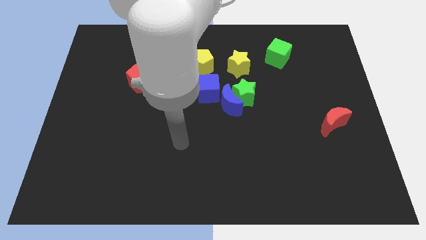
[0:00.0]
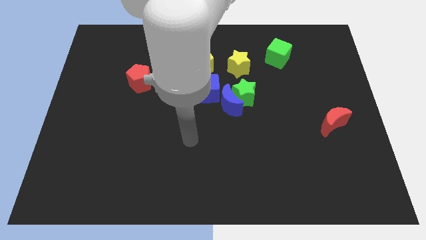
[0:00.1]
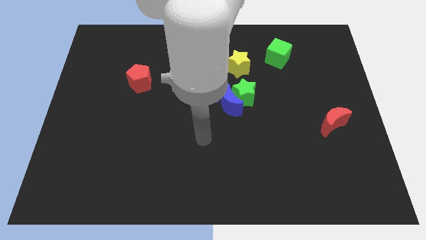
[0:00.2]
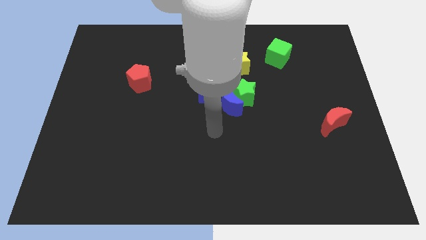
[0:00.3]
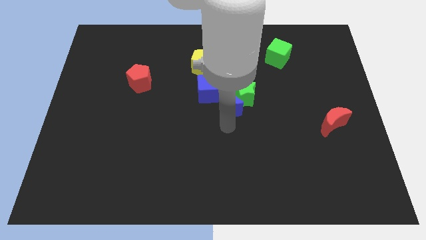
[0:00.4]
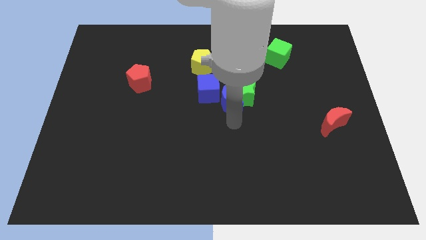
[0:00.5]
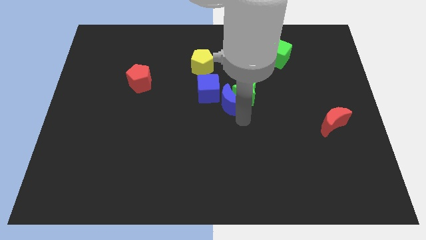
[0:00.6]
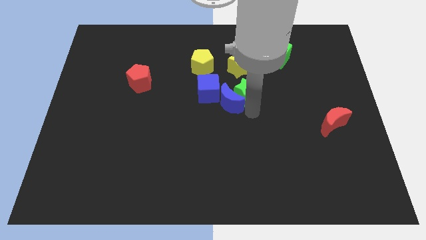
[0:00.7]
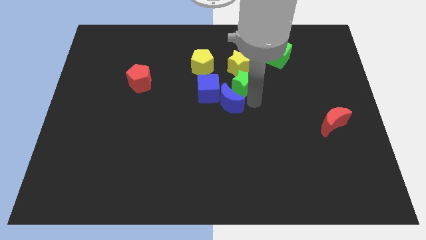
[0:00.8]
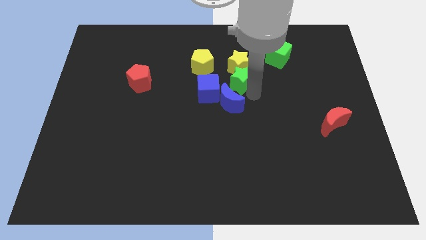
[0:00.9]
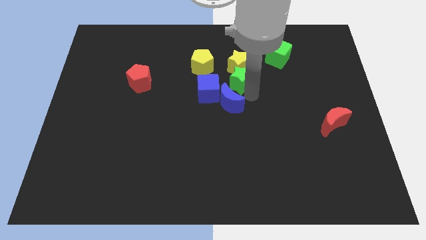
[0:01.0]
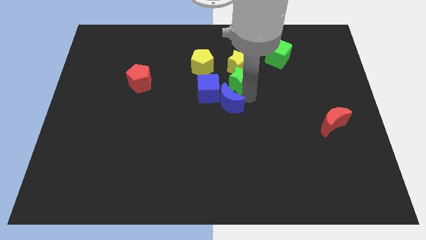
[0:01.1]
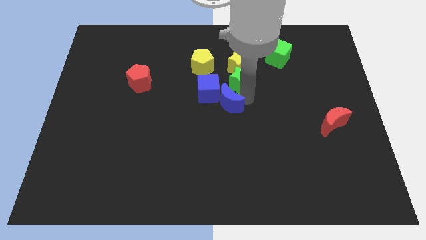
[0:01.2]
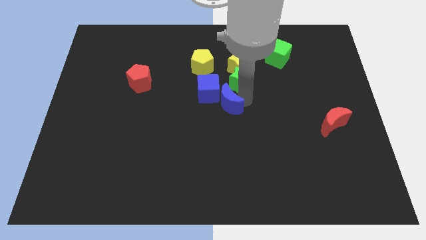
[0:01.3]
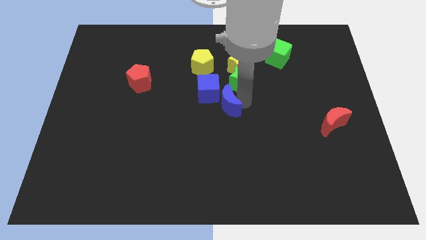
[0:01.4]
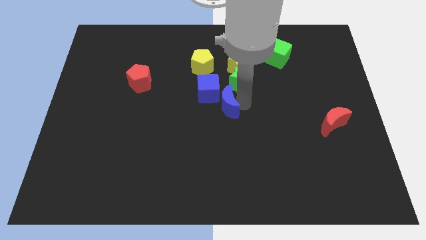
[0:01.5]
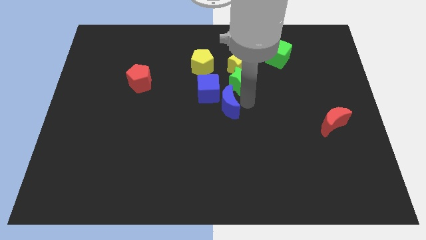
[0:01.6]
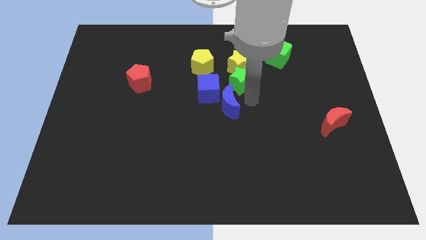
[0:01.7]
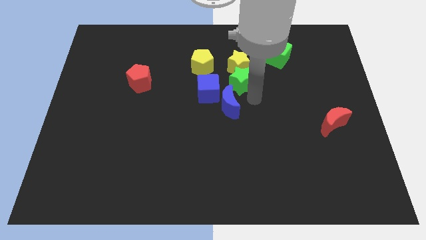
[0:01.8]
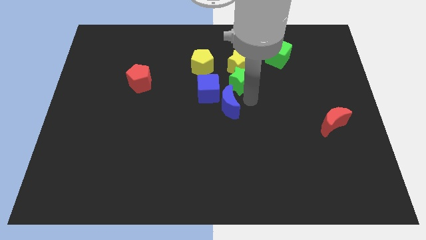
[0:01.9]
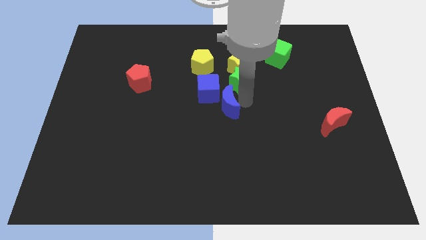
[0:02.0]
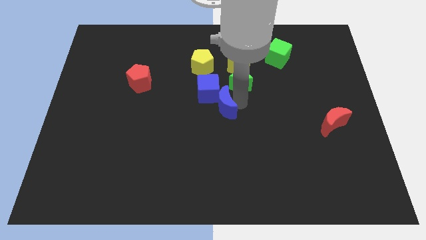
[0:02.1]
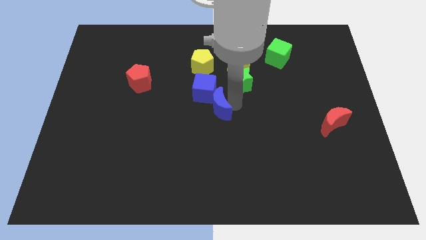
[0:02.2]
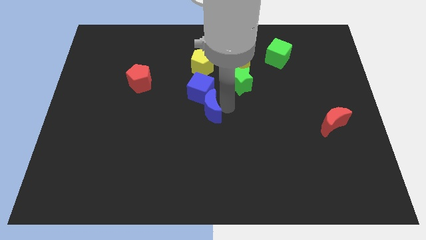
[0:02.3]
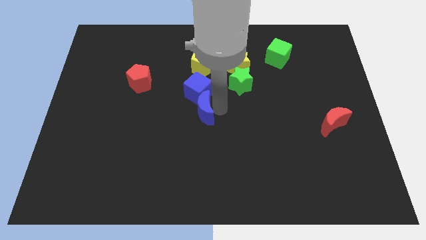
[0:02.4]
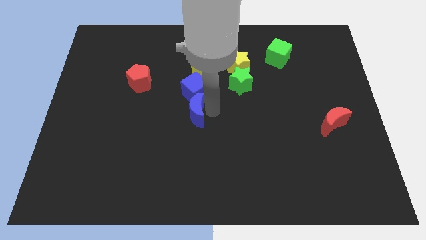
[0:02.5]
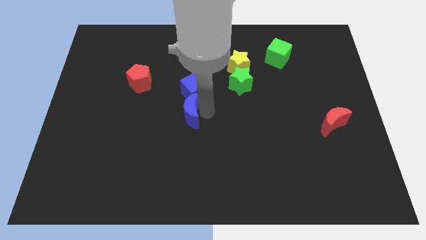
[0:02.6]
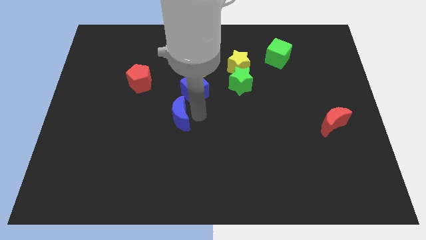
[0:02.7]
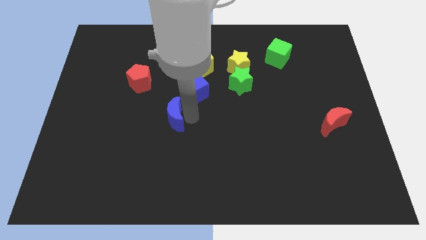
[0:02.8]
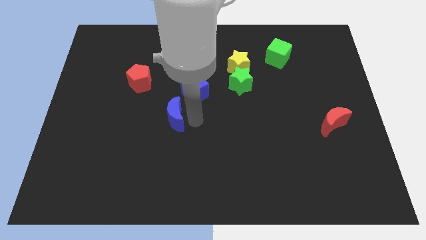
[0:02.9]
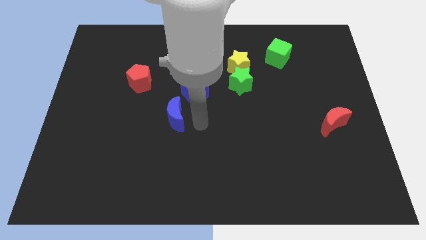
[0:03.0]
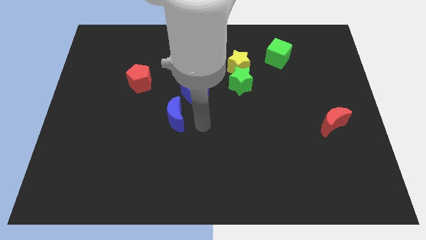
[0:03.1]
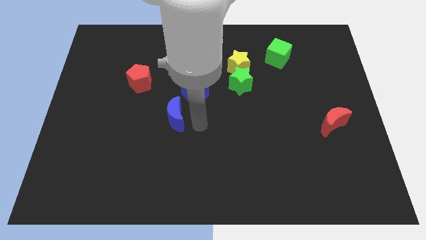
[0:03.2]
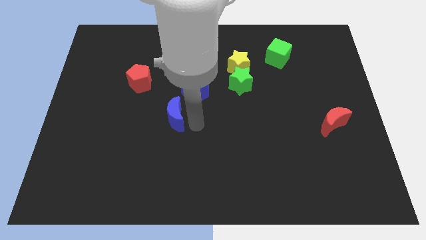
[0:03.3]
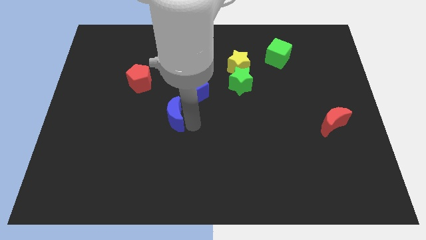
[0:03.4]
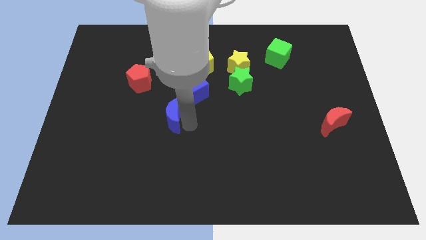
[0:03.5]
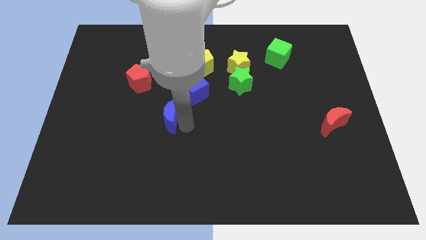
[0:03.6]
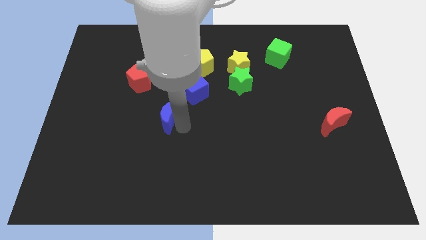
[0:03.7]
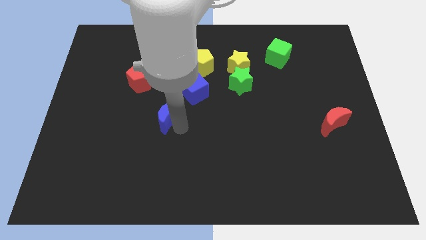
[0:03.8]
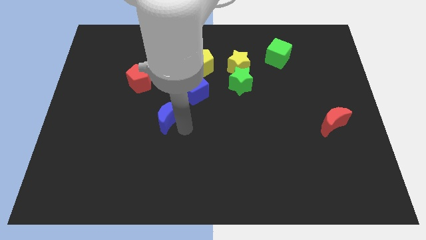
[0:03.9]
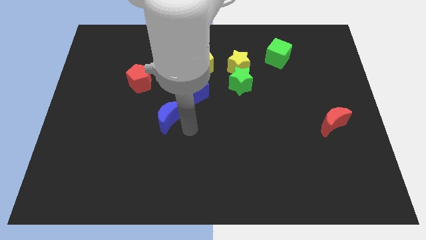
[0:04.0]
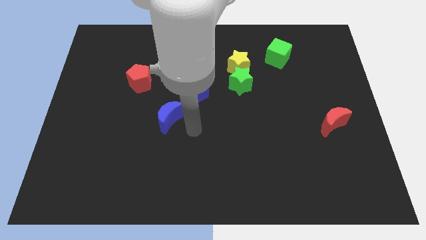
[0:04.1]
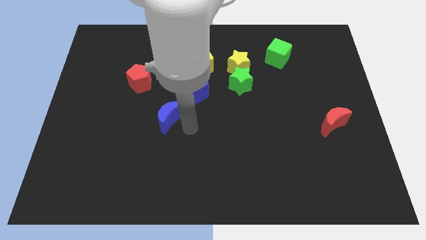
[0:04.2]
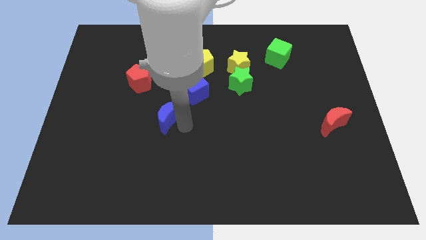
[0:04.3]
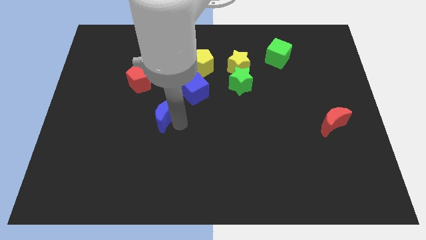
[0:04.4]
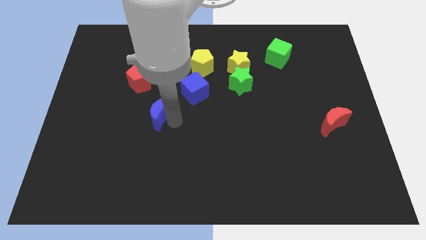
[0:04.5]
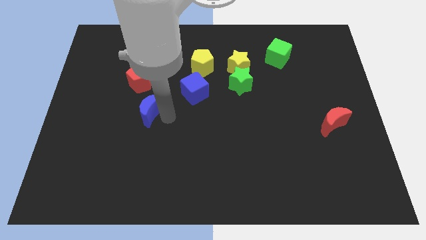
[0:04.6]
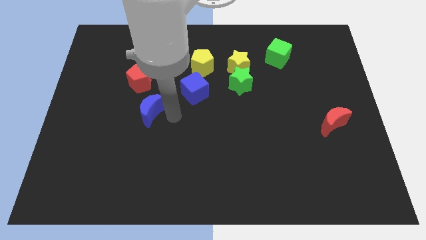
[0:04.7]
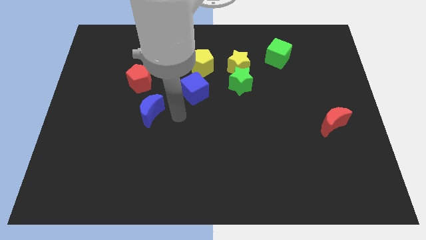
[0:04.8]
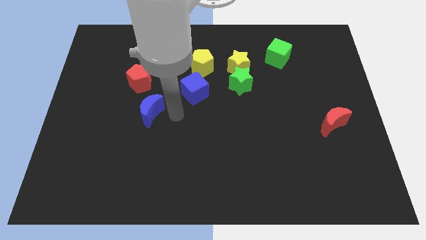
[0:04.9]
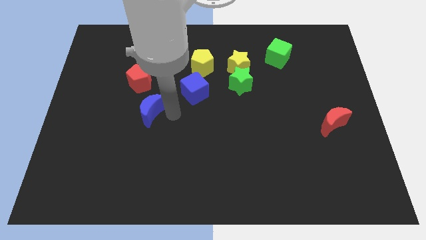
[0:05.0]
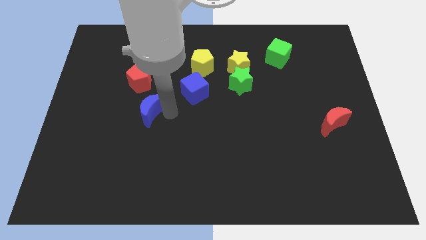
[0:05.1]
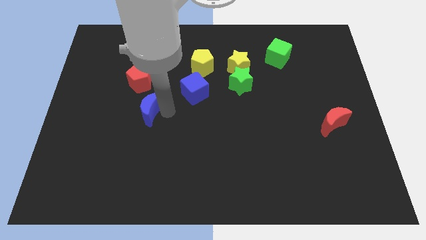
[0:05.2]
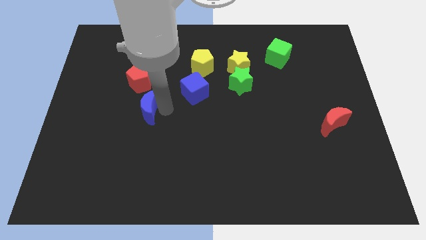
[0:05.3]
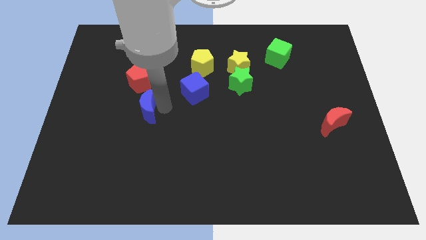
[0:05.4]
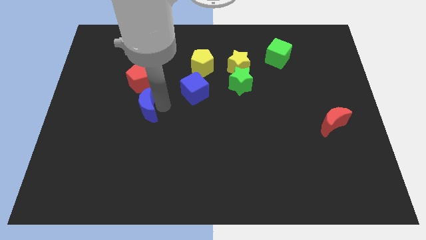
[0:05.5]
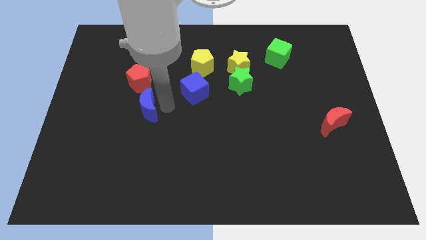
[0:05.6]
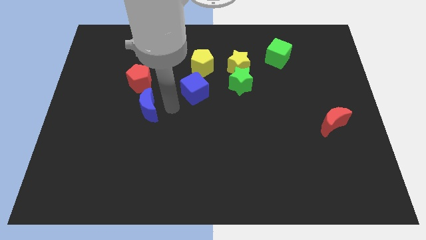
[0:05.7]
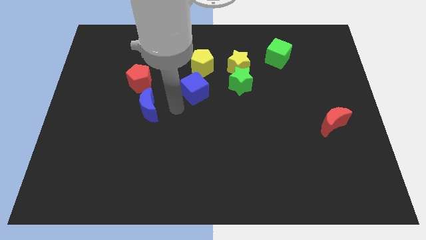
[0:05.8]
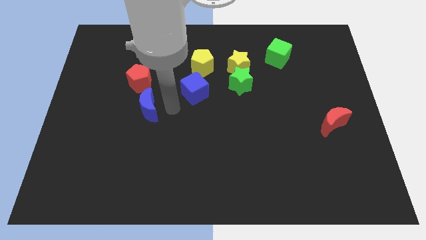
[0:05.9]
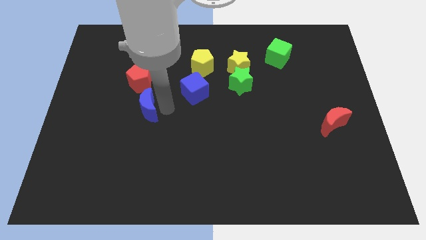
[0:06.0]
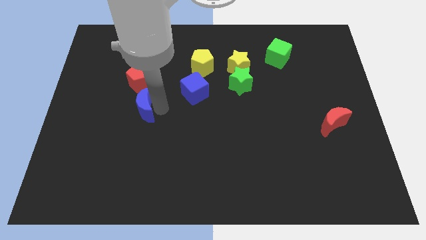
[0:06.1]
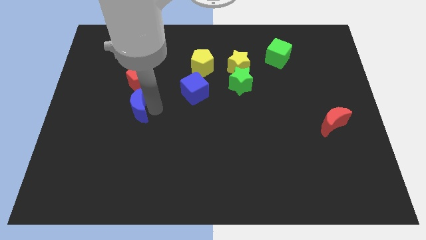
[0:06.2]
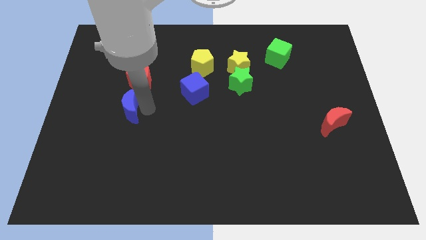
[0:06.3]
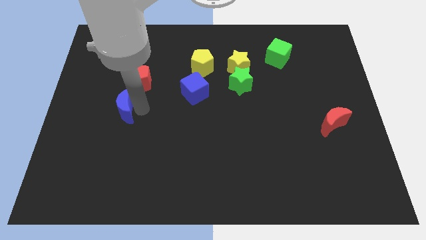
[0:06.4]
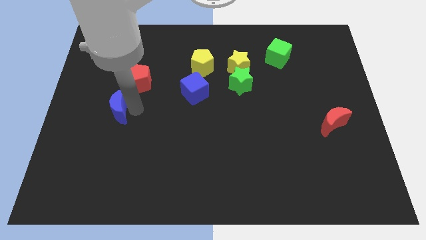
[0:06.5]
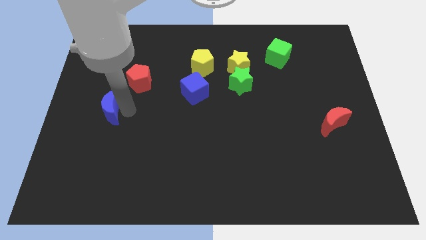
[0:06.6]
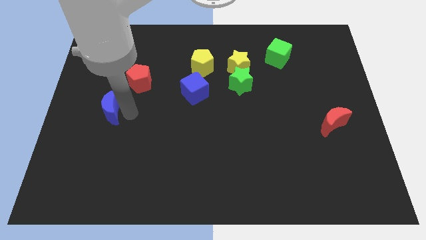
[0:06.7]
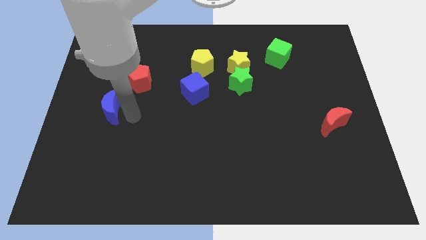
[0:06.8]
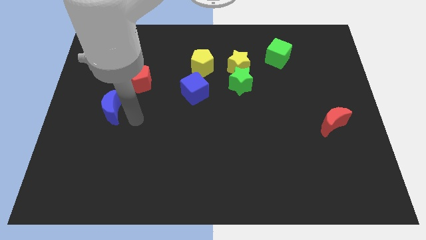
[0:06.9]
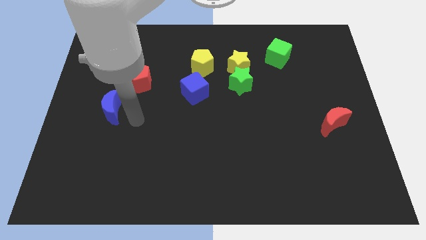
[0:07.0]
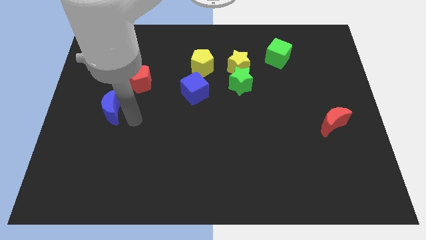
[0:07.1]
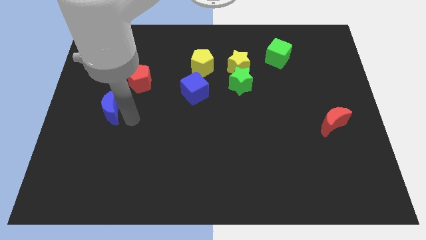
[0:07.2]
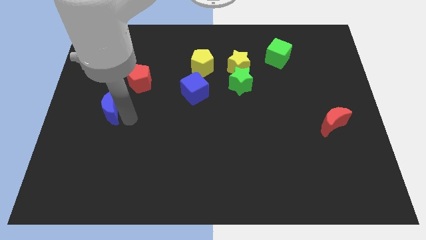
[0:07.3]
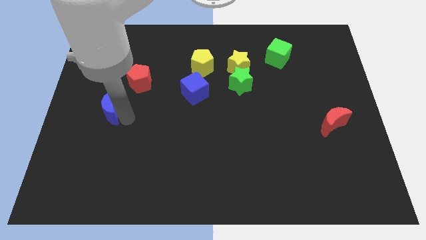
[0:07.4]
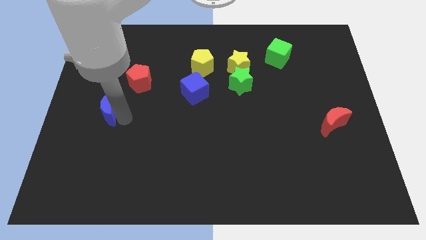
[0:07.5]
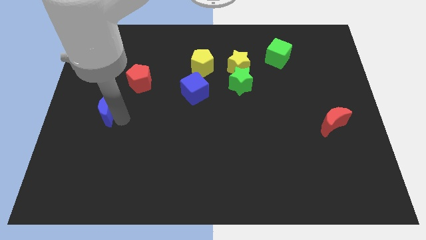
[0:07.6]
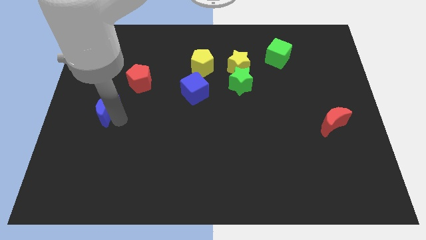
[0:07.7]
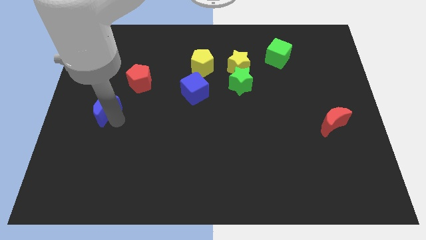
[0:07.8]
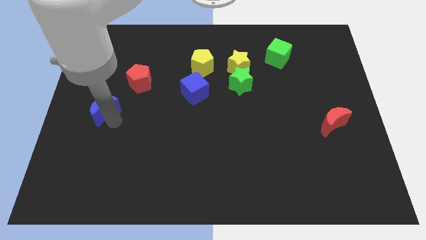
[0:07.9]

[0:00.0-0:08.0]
move the blue moon to the left side of the board
